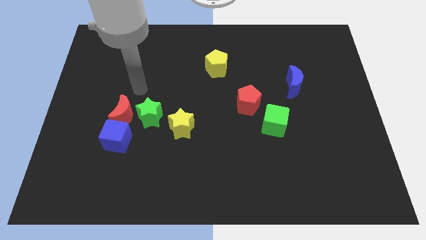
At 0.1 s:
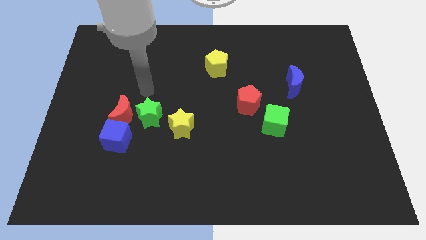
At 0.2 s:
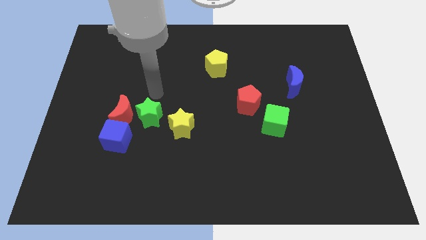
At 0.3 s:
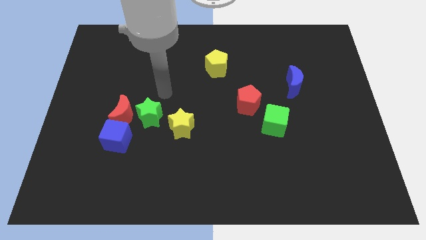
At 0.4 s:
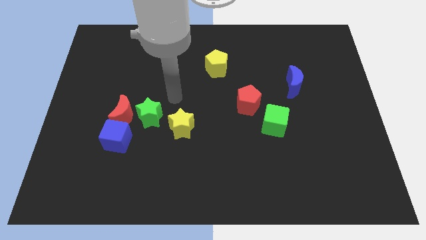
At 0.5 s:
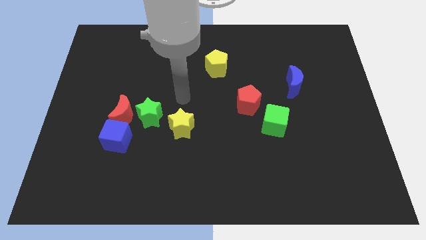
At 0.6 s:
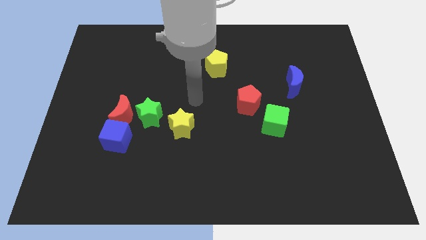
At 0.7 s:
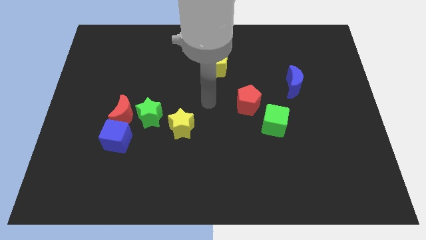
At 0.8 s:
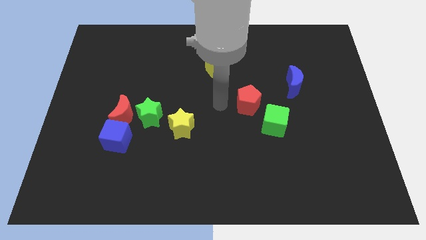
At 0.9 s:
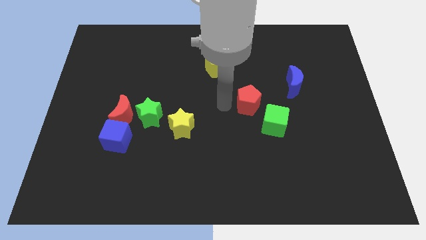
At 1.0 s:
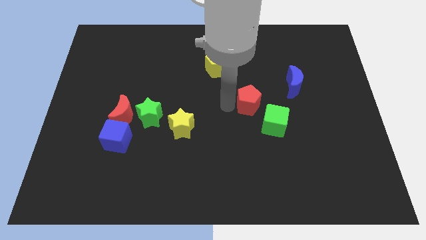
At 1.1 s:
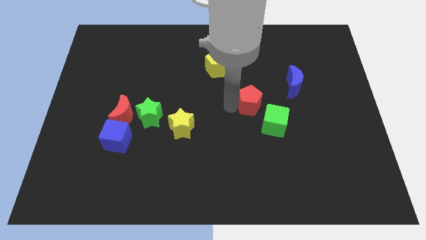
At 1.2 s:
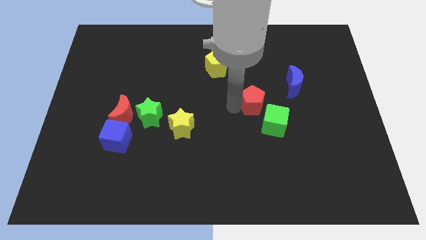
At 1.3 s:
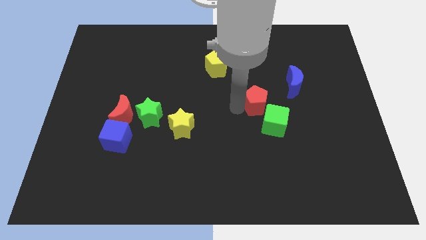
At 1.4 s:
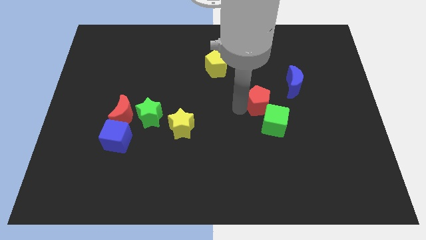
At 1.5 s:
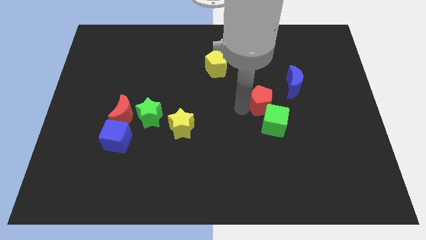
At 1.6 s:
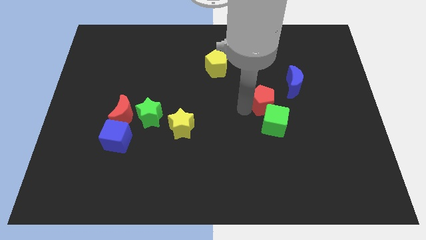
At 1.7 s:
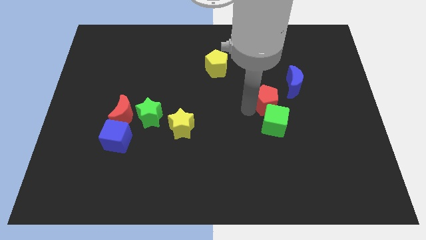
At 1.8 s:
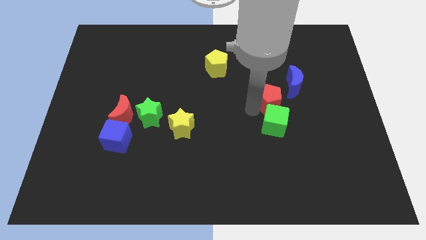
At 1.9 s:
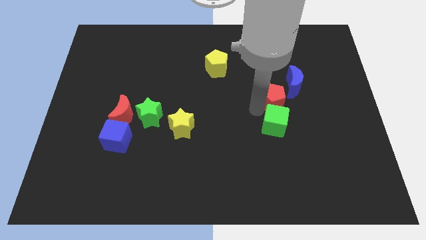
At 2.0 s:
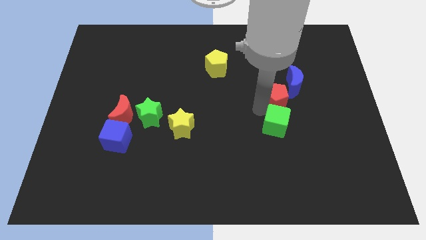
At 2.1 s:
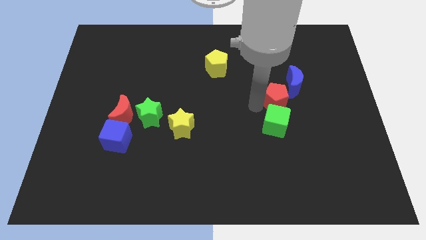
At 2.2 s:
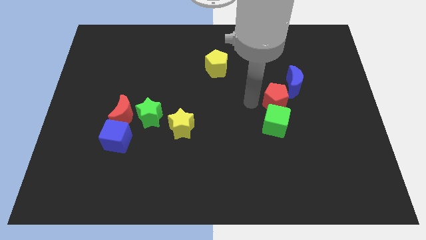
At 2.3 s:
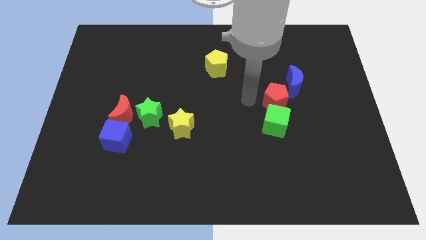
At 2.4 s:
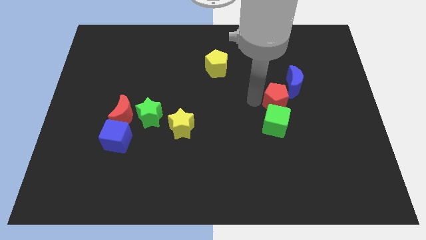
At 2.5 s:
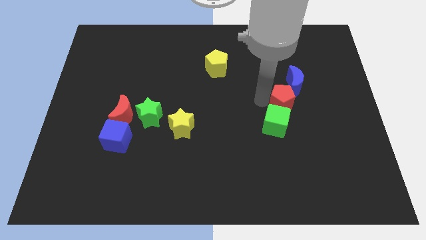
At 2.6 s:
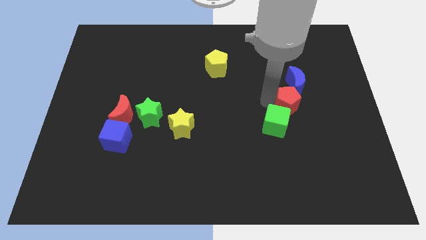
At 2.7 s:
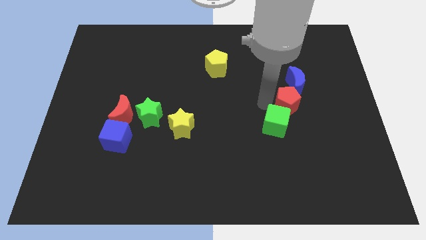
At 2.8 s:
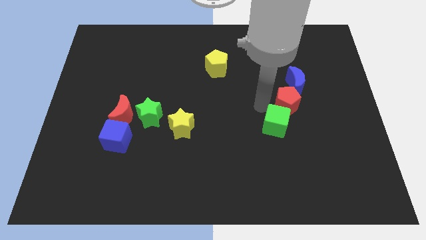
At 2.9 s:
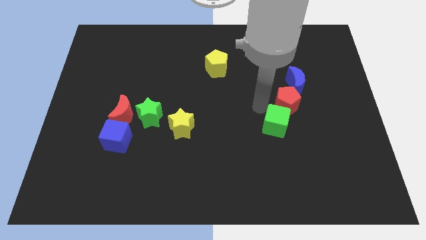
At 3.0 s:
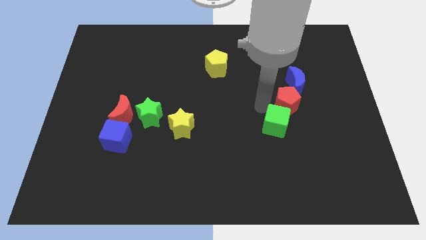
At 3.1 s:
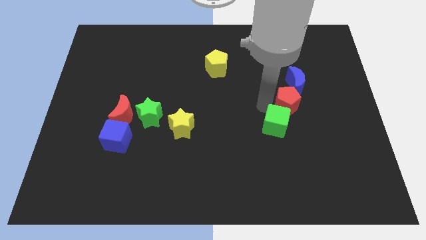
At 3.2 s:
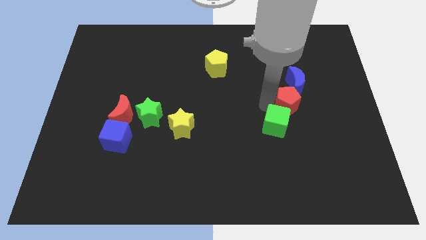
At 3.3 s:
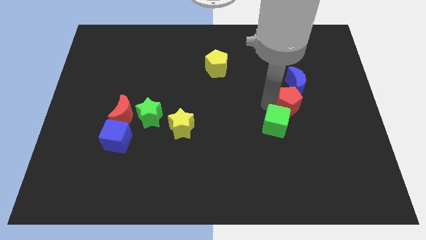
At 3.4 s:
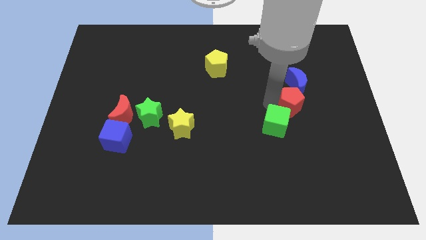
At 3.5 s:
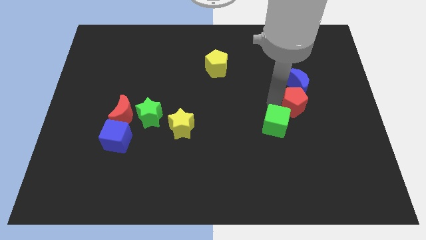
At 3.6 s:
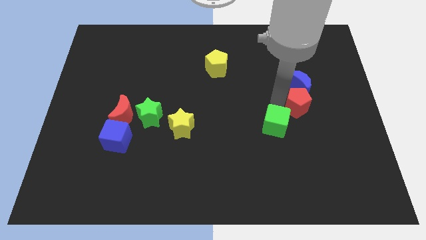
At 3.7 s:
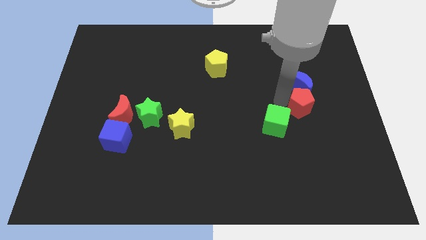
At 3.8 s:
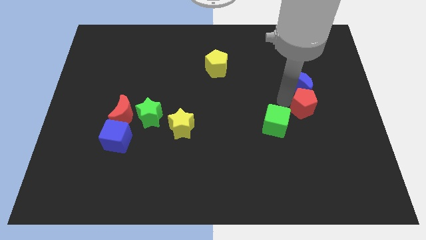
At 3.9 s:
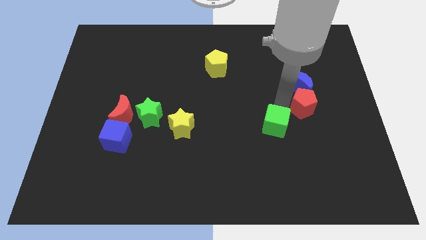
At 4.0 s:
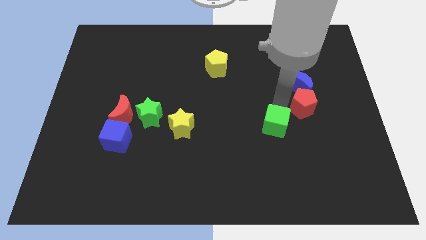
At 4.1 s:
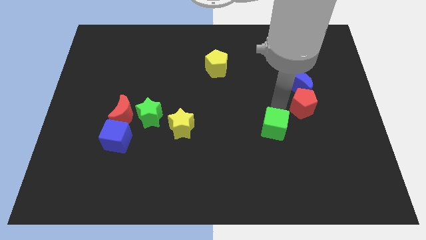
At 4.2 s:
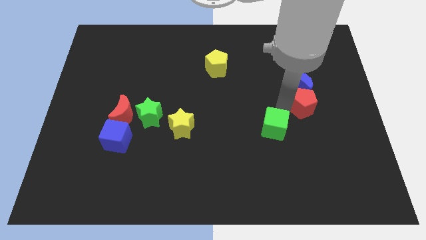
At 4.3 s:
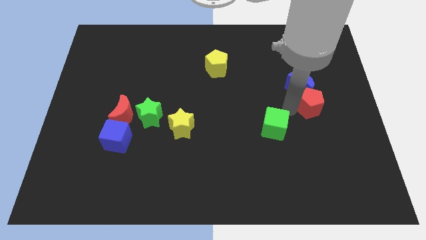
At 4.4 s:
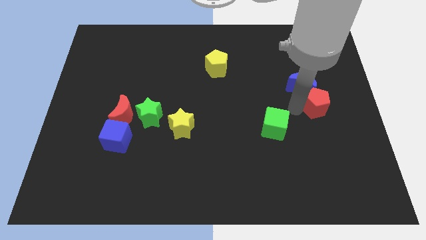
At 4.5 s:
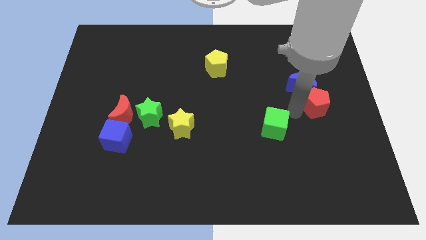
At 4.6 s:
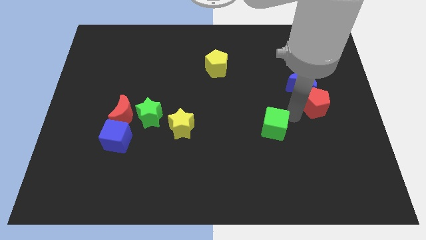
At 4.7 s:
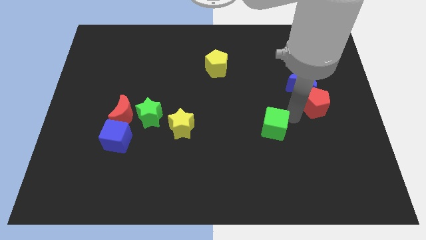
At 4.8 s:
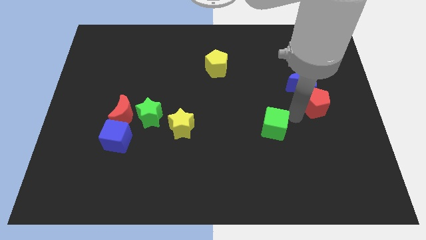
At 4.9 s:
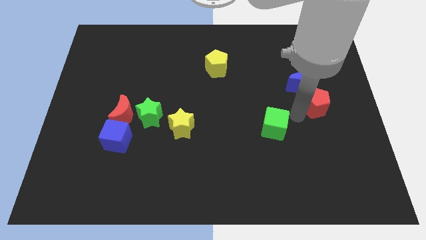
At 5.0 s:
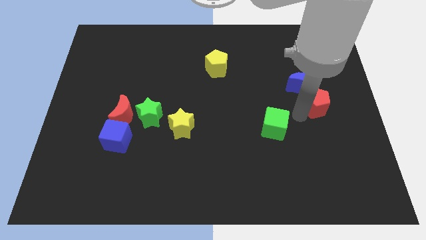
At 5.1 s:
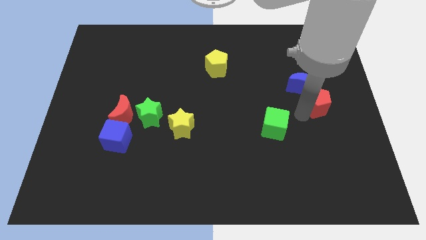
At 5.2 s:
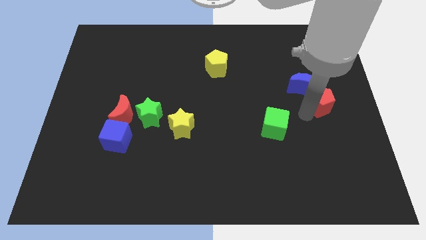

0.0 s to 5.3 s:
slide the red pentagon to the center right

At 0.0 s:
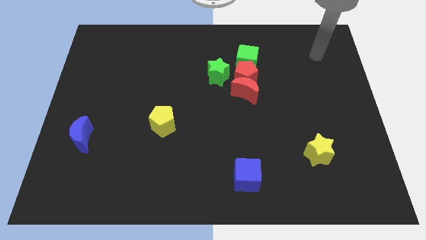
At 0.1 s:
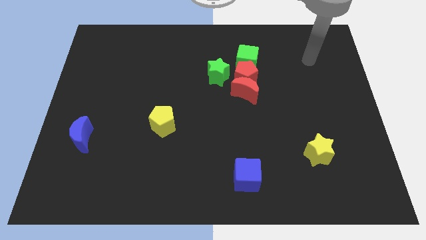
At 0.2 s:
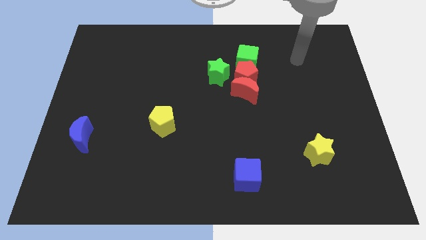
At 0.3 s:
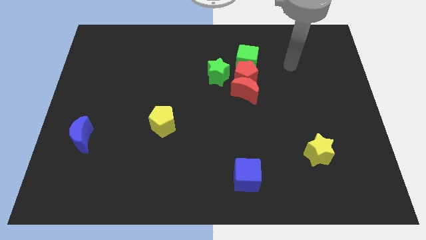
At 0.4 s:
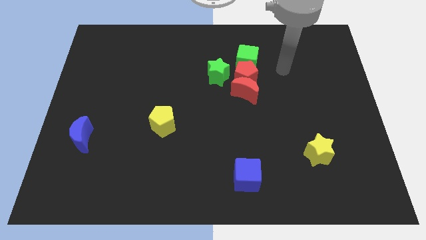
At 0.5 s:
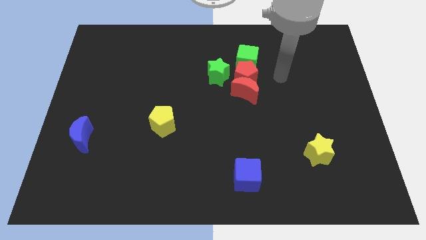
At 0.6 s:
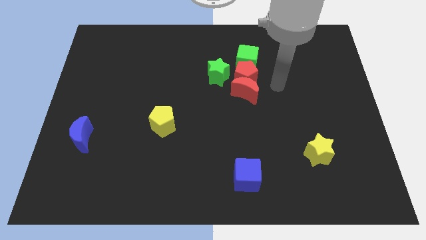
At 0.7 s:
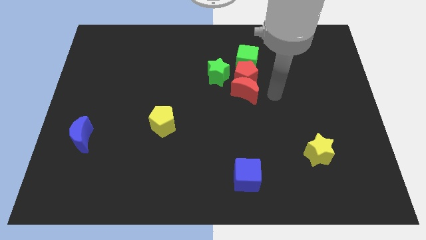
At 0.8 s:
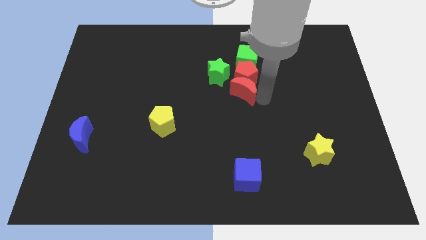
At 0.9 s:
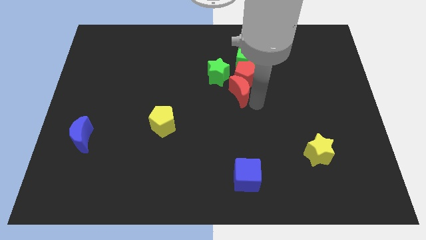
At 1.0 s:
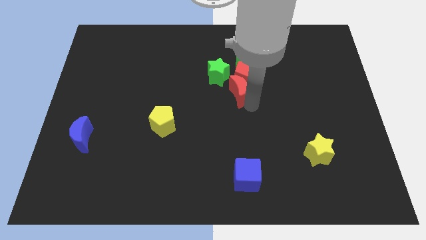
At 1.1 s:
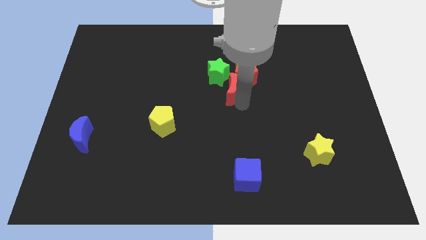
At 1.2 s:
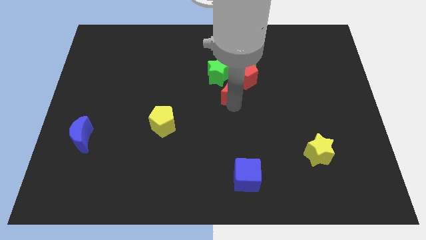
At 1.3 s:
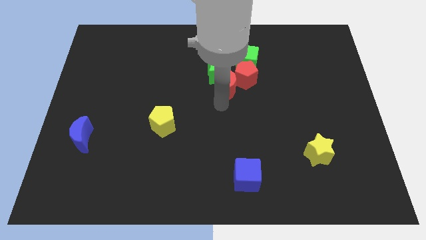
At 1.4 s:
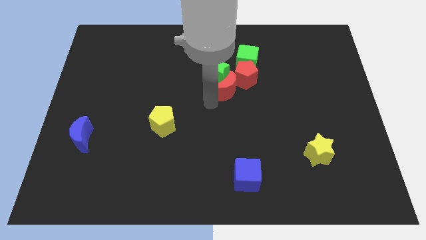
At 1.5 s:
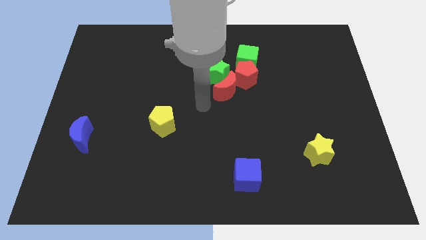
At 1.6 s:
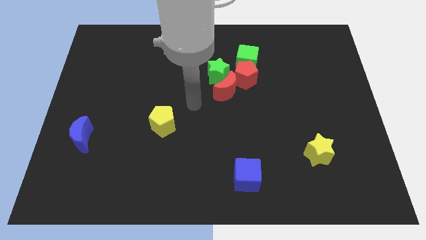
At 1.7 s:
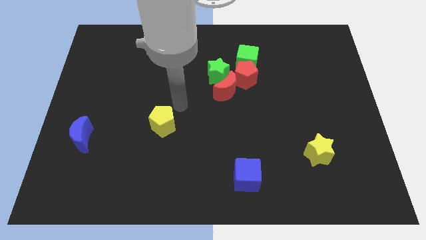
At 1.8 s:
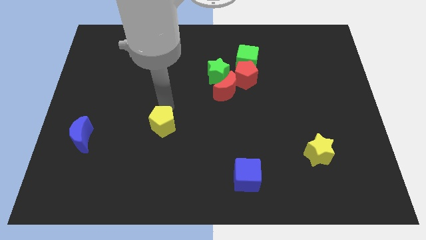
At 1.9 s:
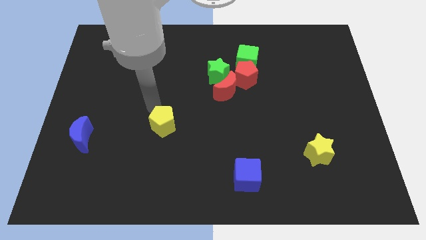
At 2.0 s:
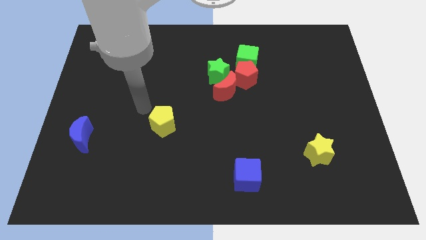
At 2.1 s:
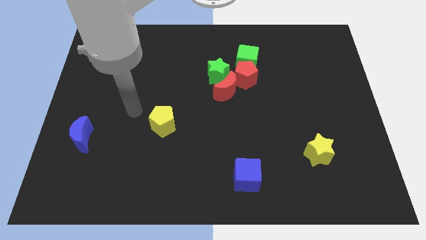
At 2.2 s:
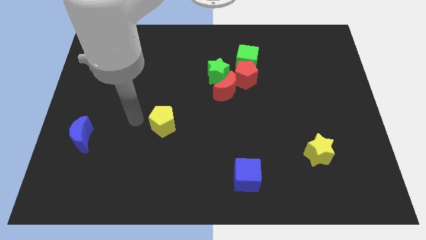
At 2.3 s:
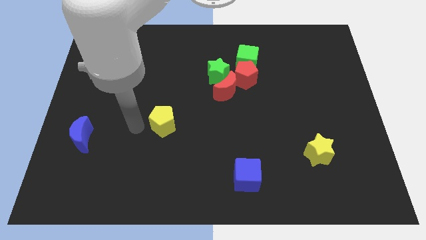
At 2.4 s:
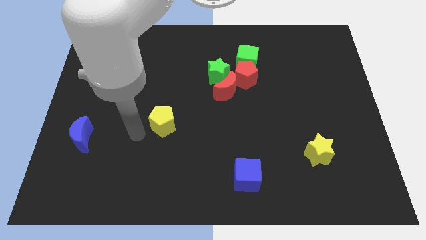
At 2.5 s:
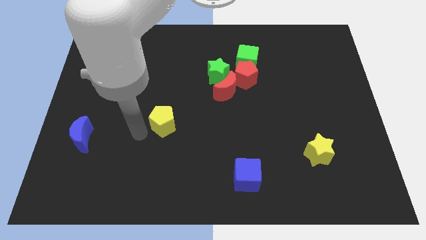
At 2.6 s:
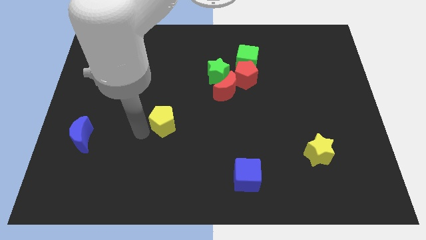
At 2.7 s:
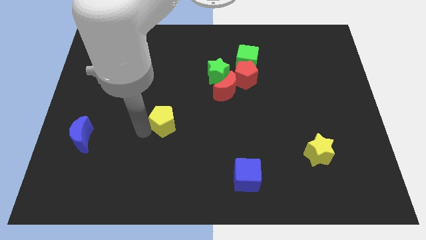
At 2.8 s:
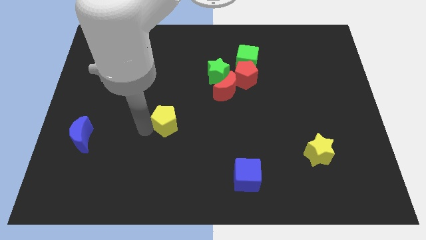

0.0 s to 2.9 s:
slide the yellow pentagon to the middle
